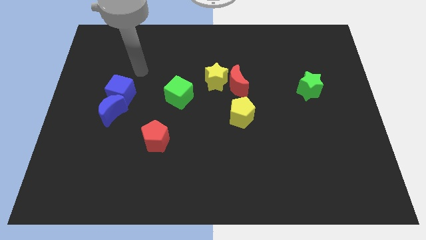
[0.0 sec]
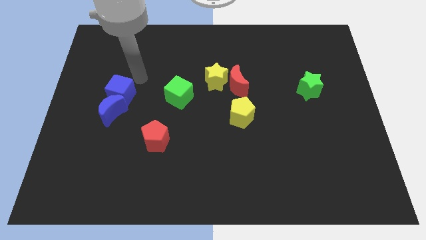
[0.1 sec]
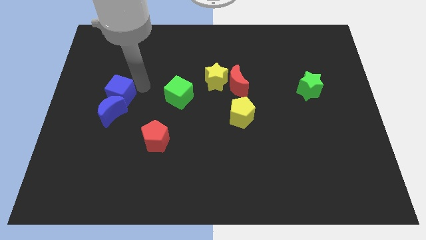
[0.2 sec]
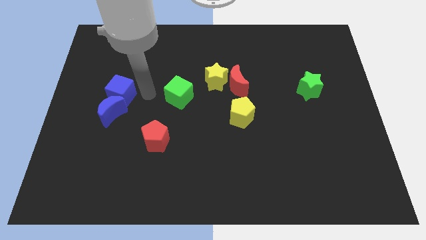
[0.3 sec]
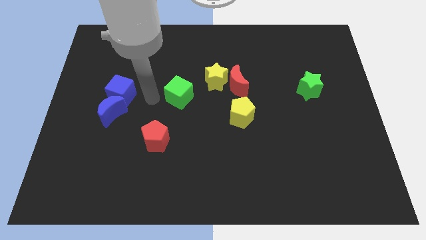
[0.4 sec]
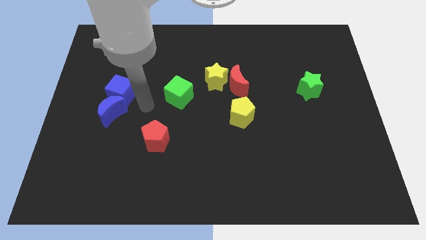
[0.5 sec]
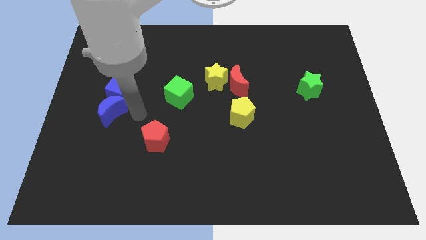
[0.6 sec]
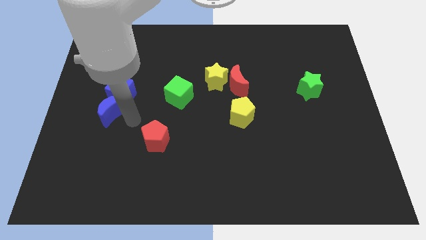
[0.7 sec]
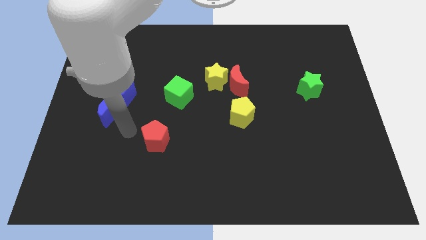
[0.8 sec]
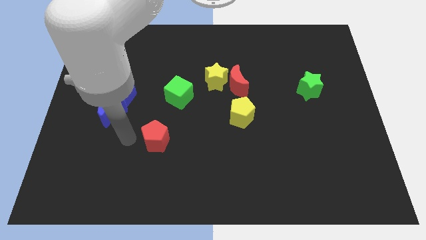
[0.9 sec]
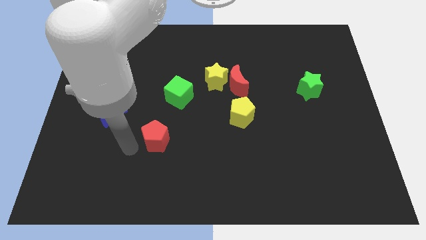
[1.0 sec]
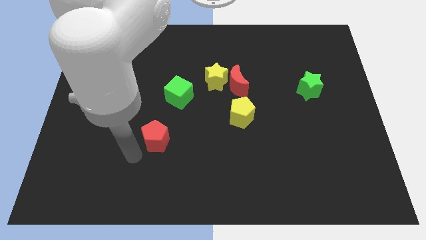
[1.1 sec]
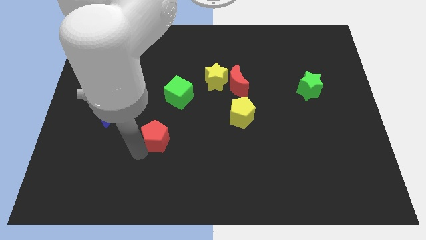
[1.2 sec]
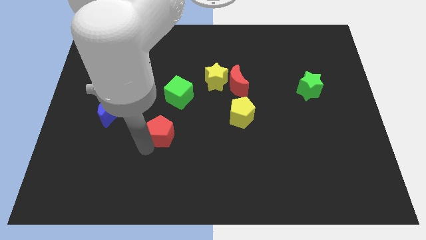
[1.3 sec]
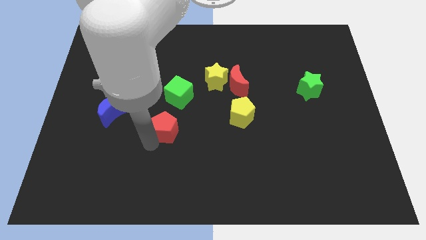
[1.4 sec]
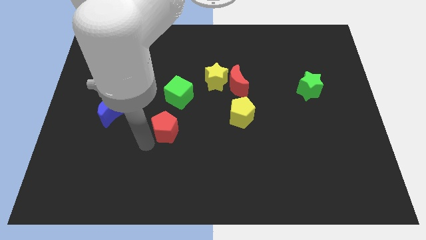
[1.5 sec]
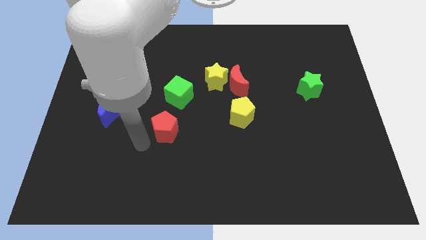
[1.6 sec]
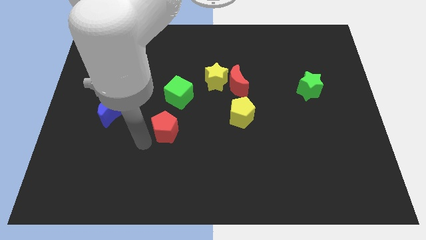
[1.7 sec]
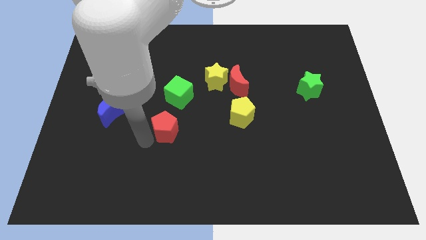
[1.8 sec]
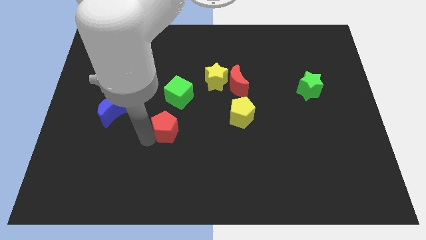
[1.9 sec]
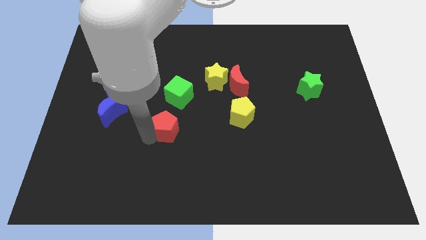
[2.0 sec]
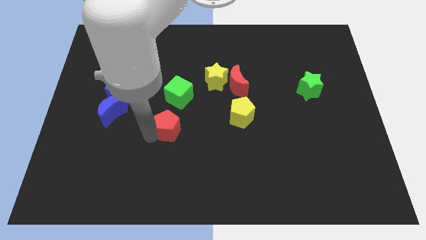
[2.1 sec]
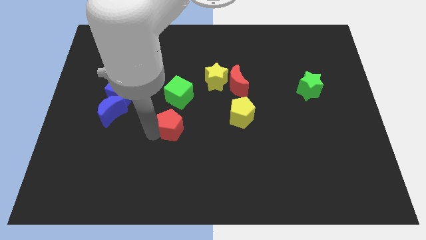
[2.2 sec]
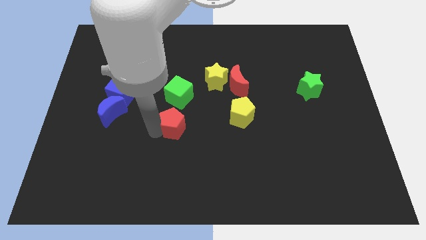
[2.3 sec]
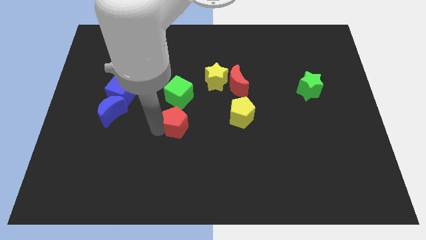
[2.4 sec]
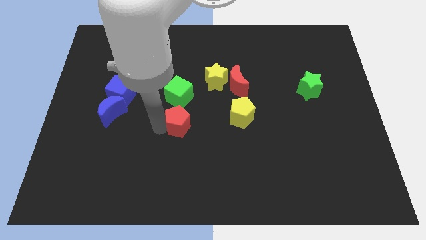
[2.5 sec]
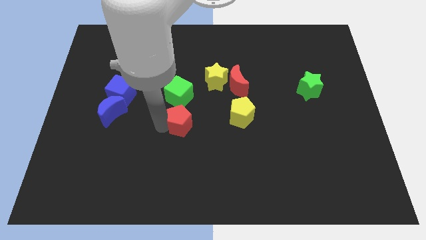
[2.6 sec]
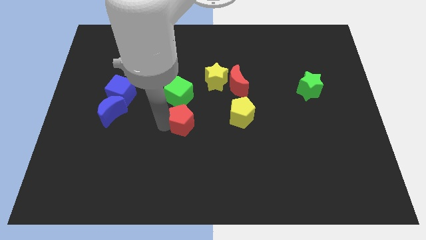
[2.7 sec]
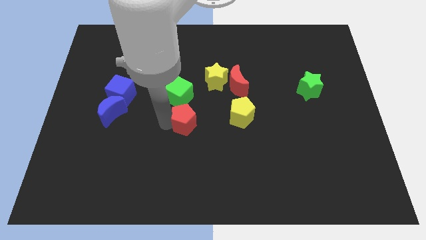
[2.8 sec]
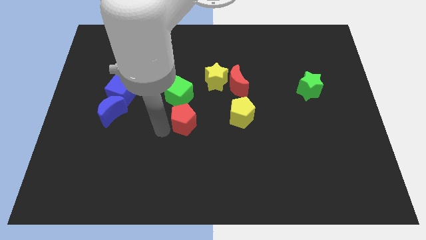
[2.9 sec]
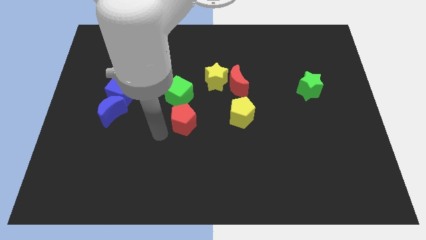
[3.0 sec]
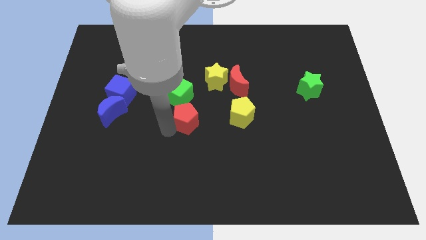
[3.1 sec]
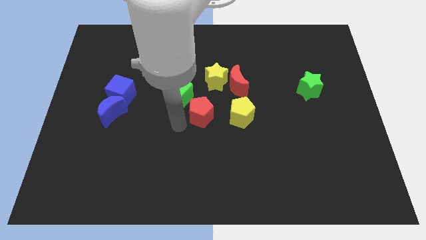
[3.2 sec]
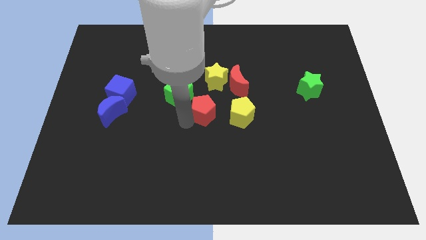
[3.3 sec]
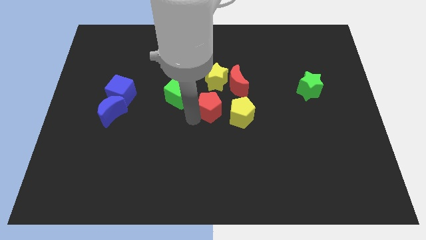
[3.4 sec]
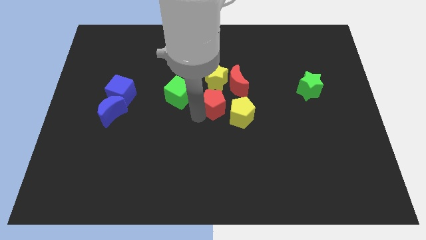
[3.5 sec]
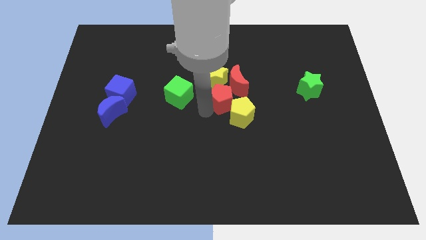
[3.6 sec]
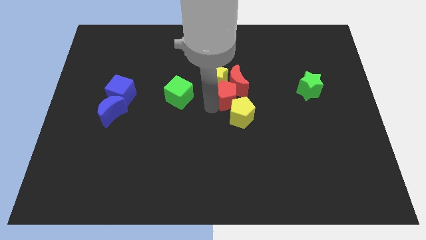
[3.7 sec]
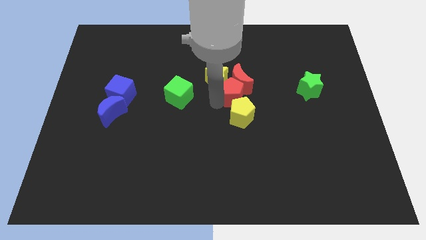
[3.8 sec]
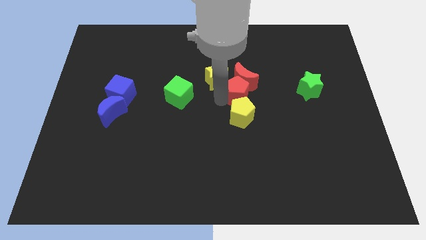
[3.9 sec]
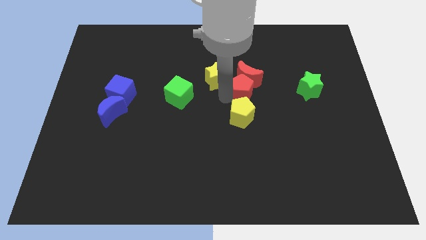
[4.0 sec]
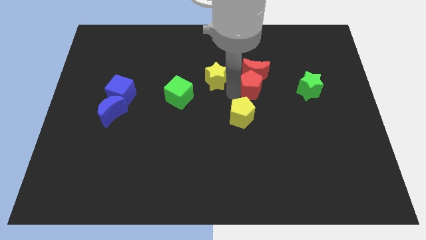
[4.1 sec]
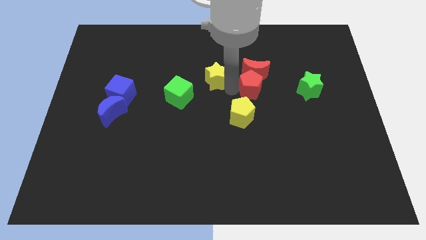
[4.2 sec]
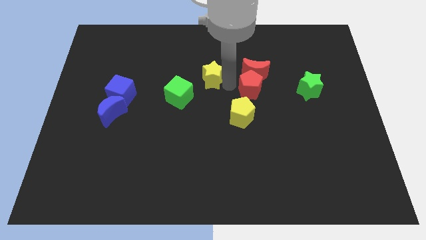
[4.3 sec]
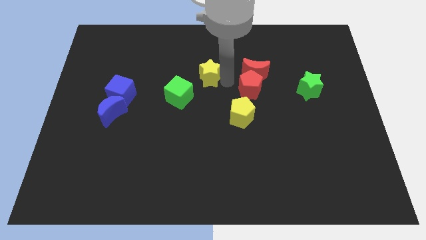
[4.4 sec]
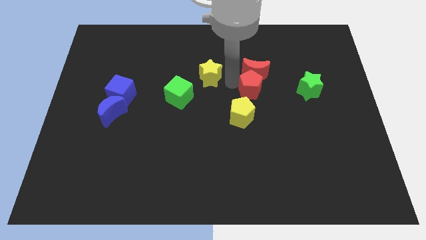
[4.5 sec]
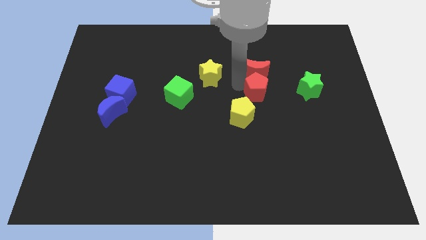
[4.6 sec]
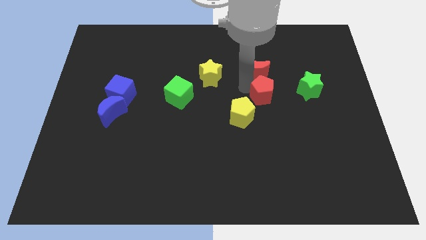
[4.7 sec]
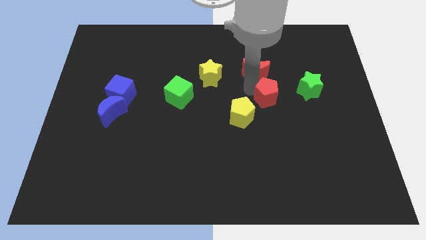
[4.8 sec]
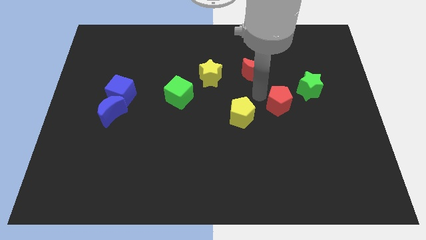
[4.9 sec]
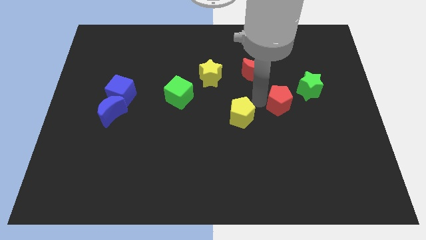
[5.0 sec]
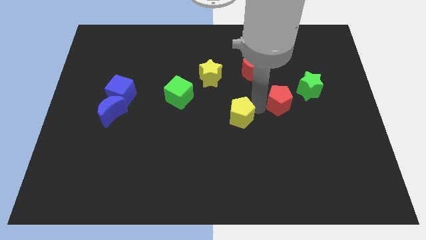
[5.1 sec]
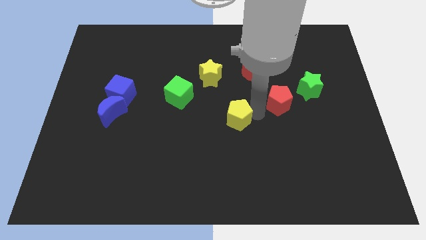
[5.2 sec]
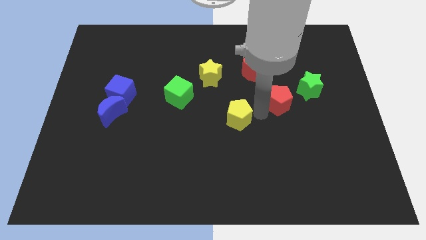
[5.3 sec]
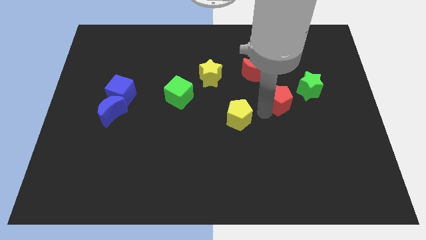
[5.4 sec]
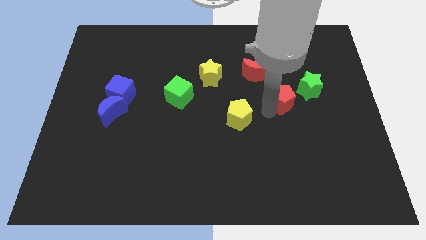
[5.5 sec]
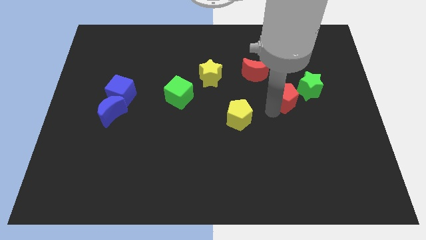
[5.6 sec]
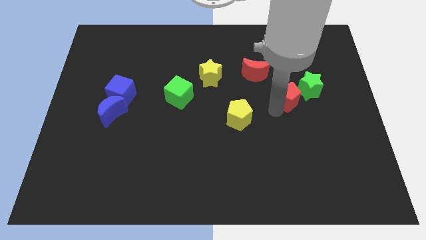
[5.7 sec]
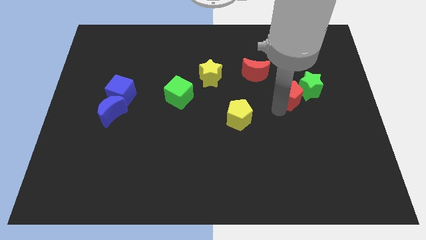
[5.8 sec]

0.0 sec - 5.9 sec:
slide the red pentagon next to the green star

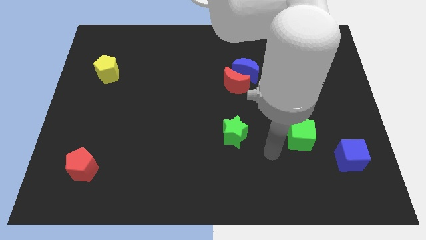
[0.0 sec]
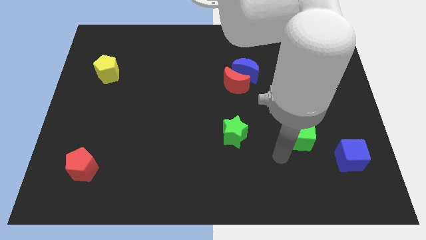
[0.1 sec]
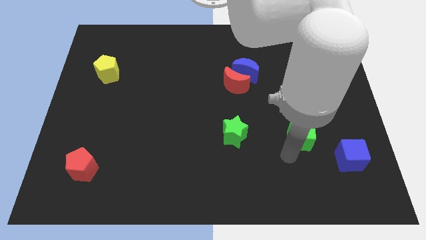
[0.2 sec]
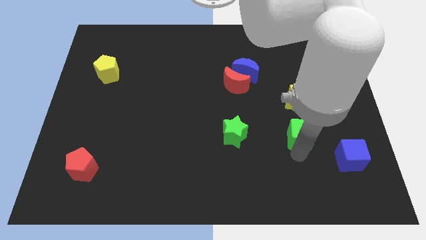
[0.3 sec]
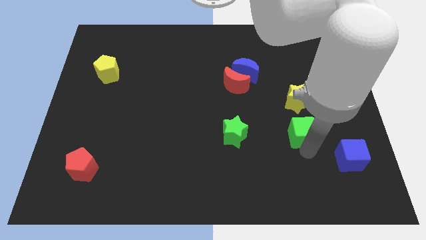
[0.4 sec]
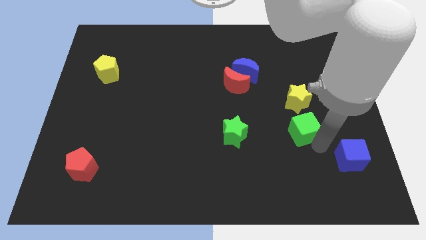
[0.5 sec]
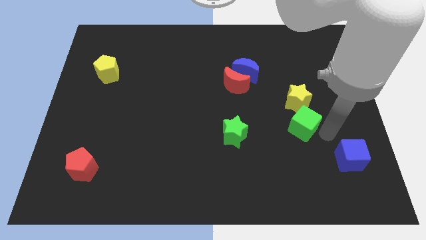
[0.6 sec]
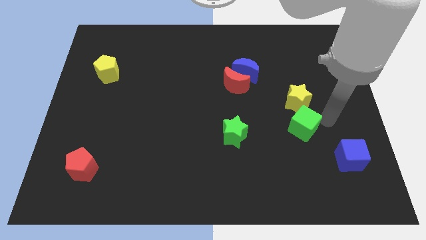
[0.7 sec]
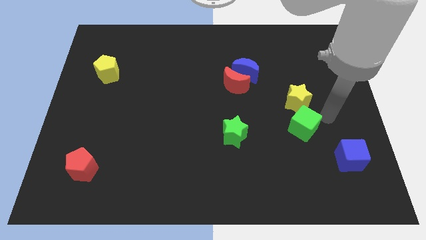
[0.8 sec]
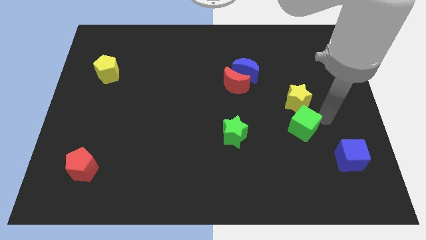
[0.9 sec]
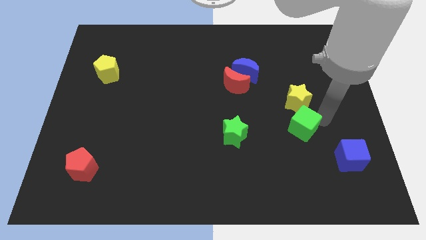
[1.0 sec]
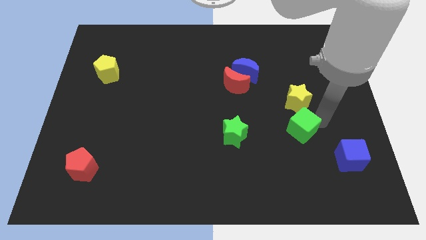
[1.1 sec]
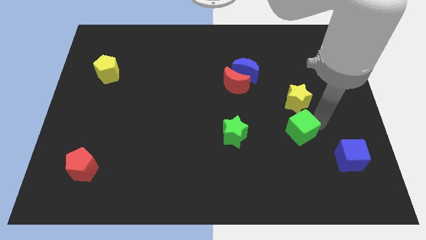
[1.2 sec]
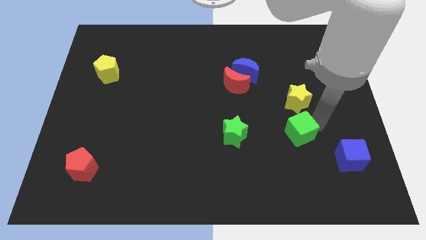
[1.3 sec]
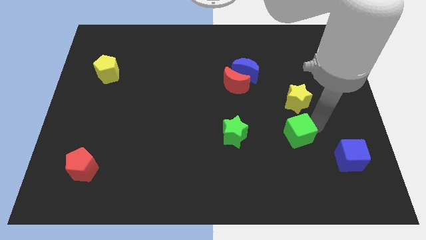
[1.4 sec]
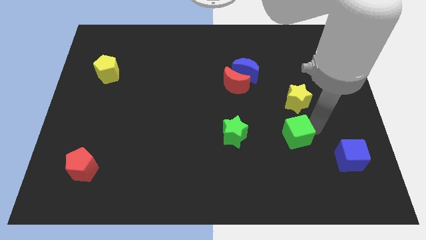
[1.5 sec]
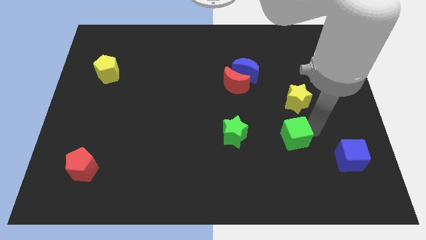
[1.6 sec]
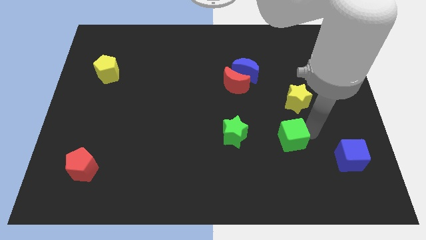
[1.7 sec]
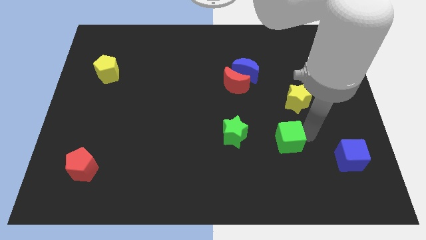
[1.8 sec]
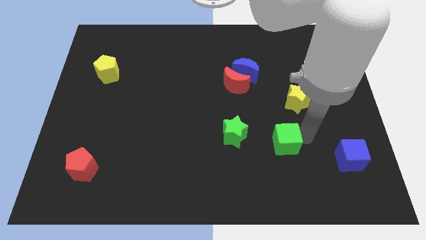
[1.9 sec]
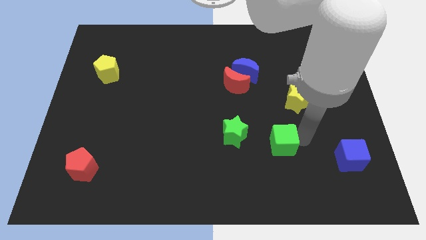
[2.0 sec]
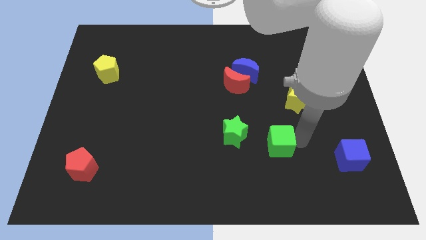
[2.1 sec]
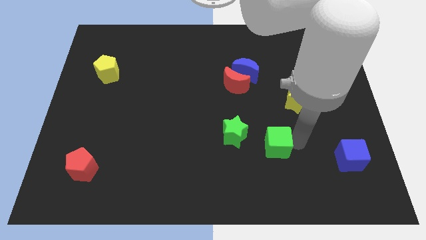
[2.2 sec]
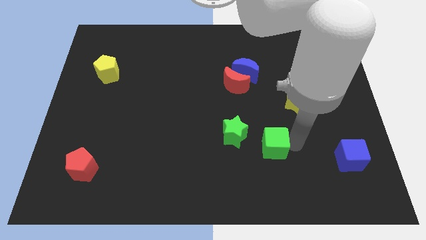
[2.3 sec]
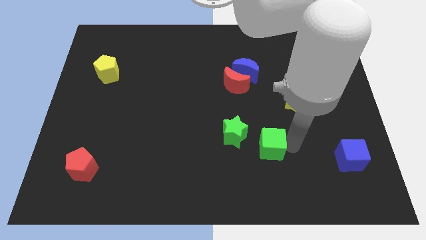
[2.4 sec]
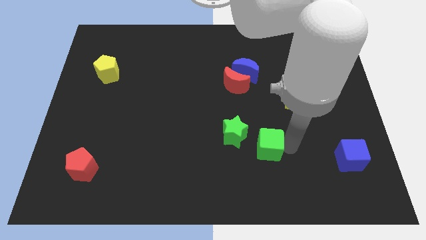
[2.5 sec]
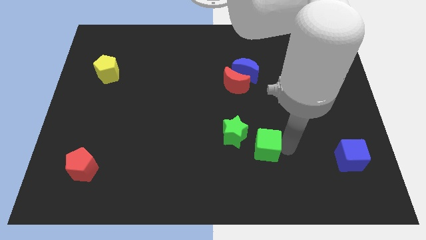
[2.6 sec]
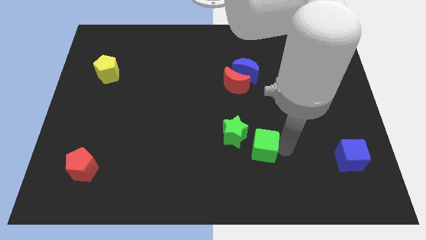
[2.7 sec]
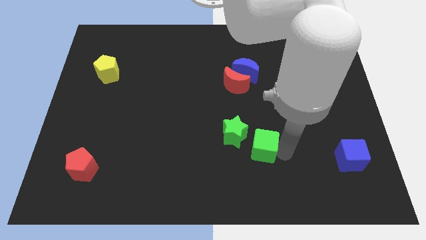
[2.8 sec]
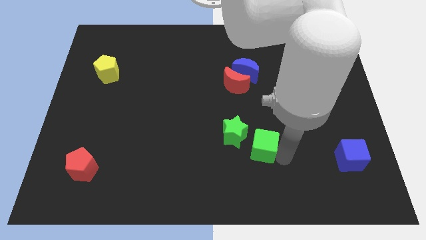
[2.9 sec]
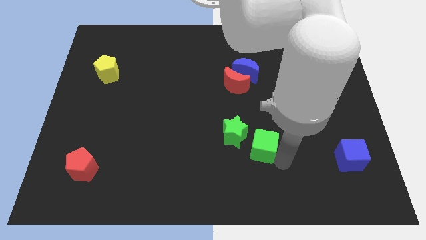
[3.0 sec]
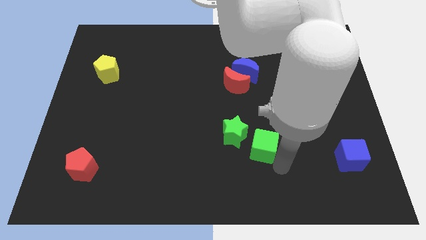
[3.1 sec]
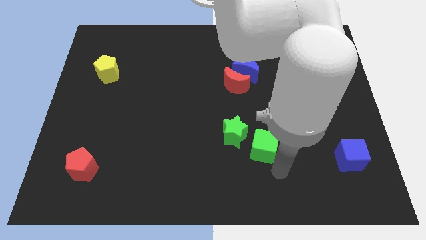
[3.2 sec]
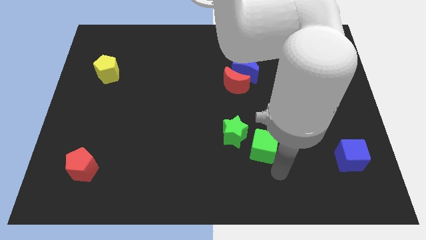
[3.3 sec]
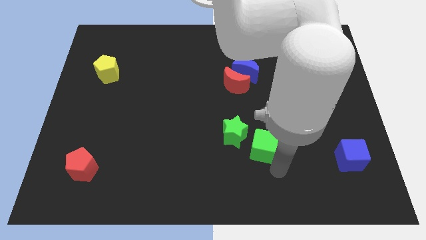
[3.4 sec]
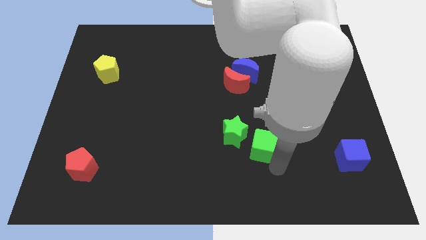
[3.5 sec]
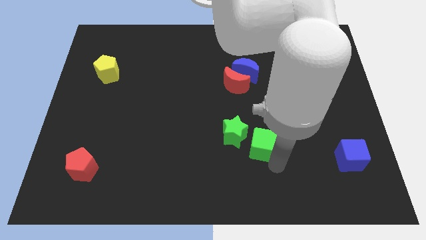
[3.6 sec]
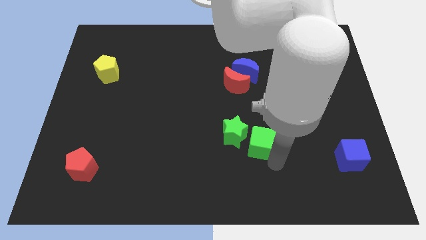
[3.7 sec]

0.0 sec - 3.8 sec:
put the green cube close to the green star
